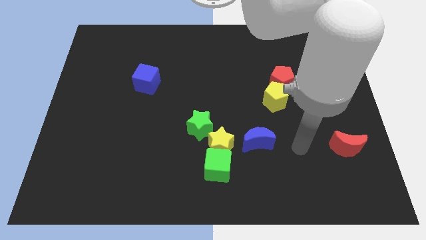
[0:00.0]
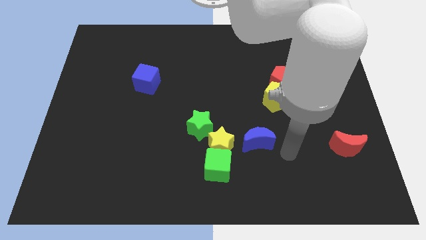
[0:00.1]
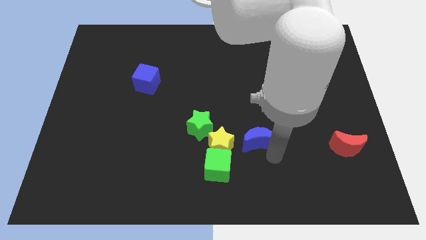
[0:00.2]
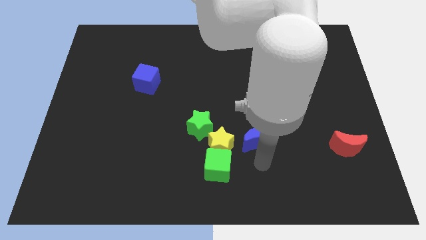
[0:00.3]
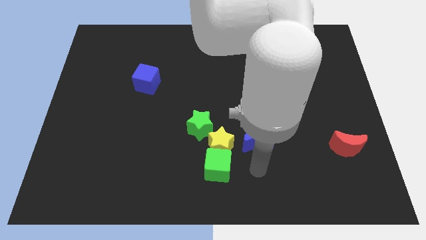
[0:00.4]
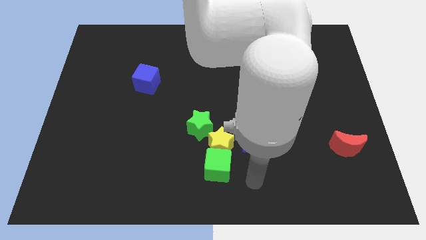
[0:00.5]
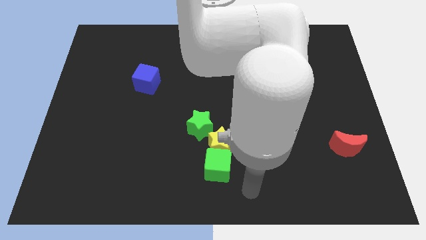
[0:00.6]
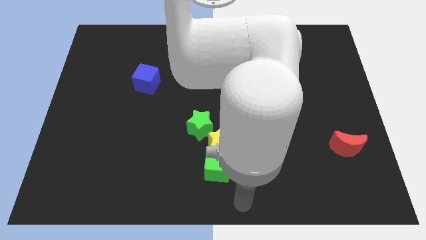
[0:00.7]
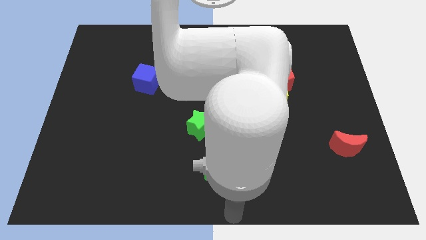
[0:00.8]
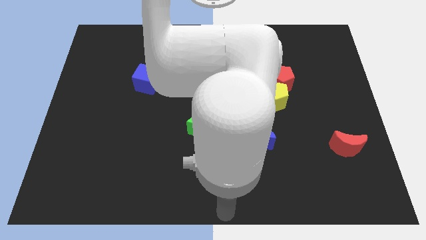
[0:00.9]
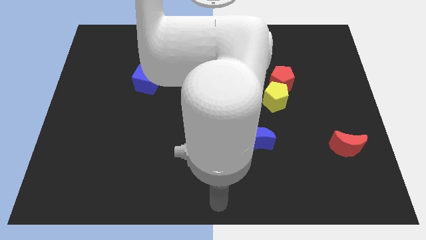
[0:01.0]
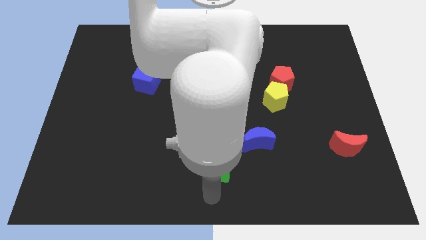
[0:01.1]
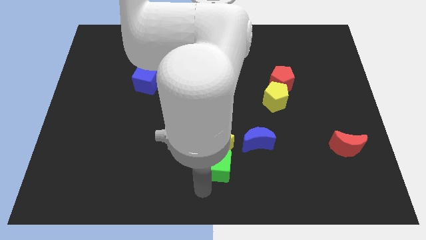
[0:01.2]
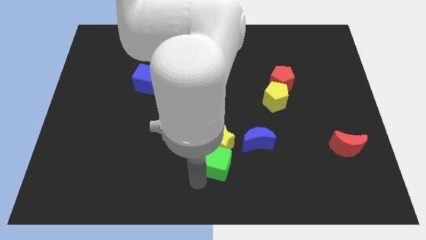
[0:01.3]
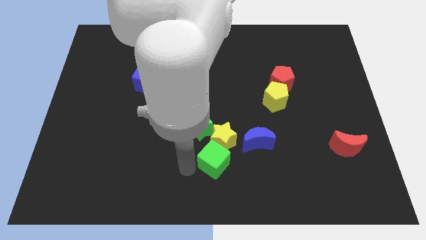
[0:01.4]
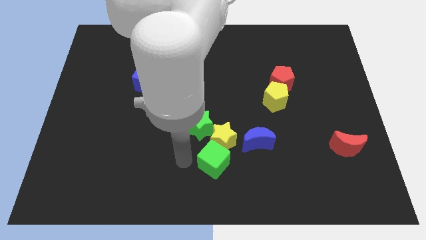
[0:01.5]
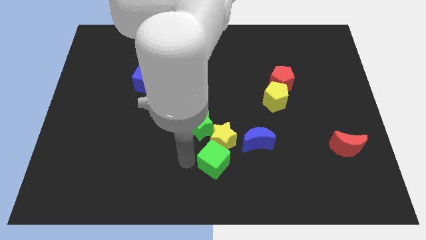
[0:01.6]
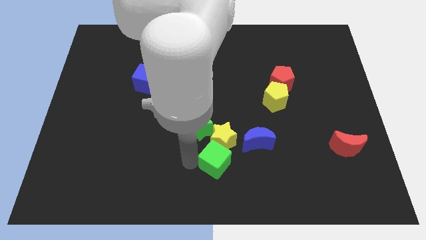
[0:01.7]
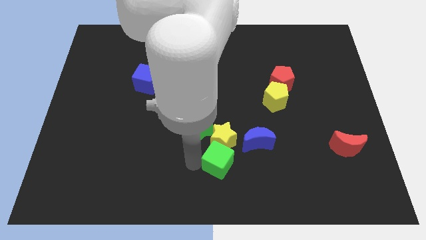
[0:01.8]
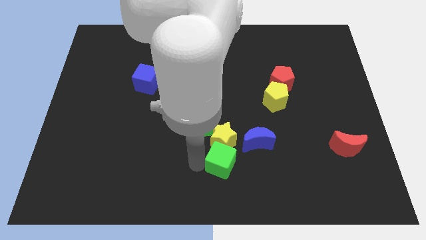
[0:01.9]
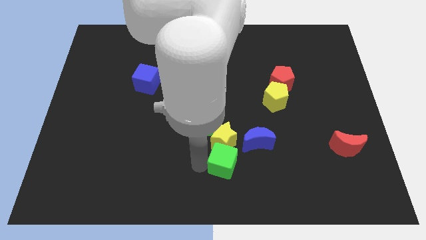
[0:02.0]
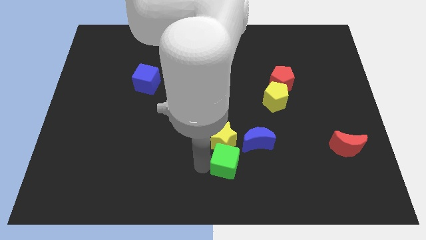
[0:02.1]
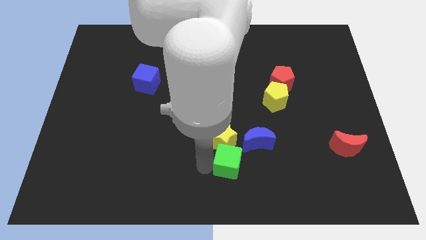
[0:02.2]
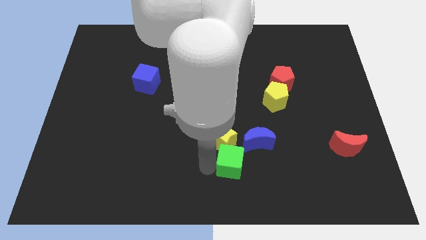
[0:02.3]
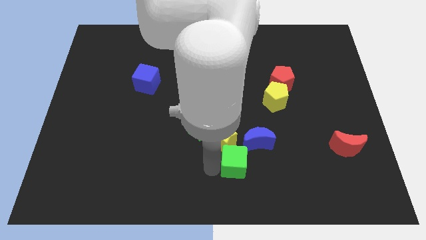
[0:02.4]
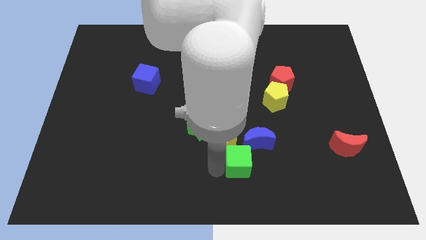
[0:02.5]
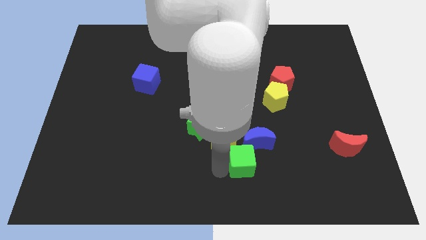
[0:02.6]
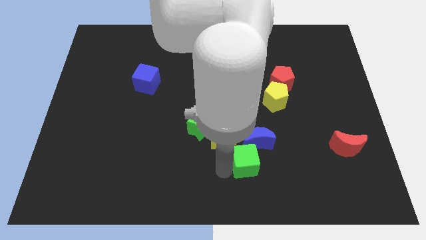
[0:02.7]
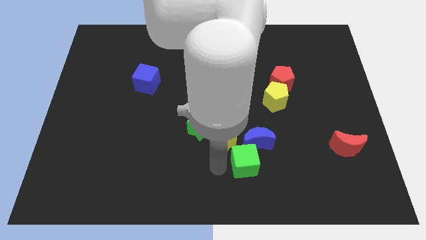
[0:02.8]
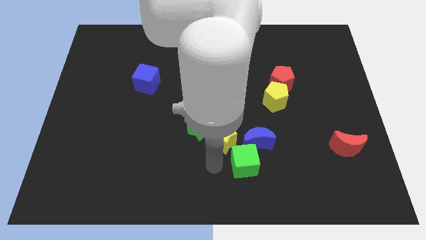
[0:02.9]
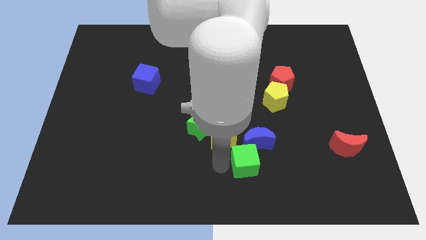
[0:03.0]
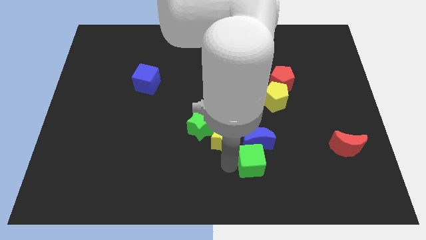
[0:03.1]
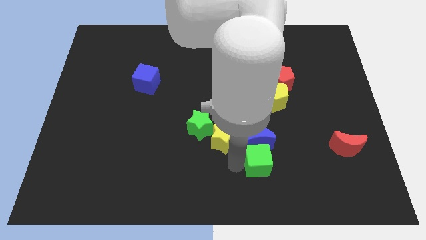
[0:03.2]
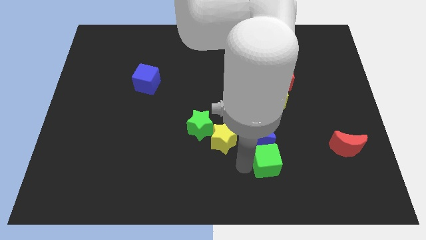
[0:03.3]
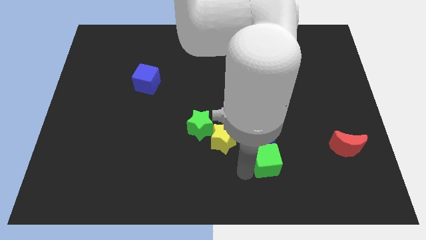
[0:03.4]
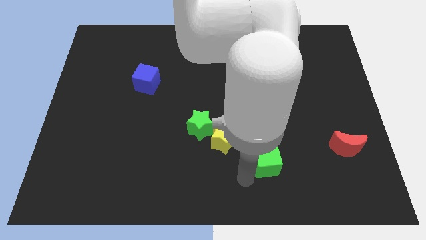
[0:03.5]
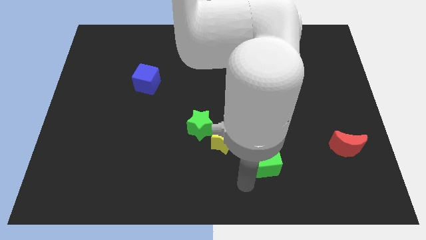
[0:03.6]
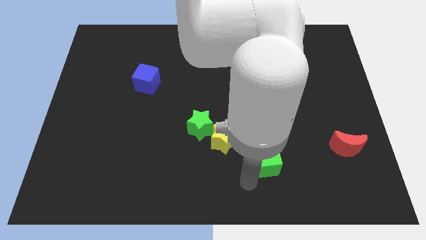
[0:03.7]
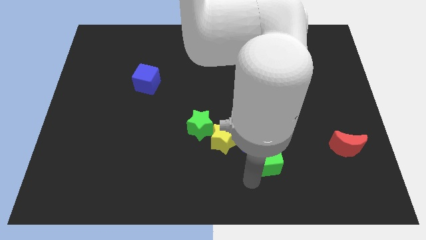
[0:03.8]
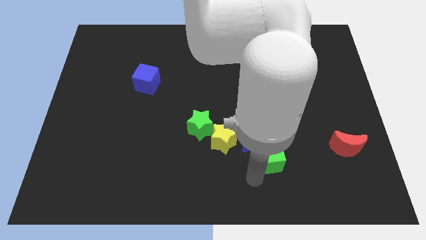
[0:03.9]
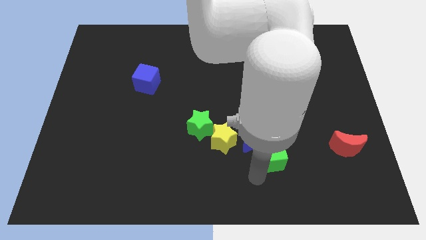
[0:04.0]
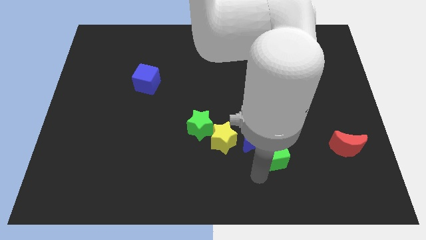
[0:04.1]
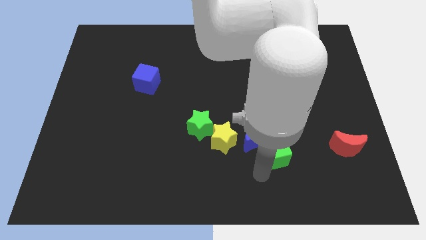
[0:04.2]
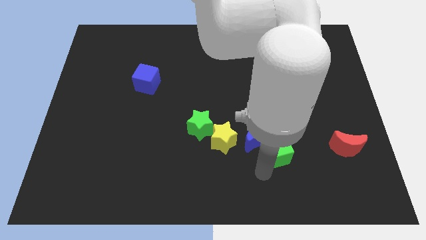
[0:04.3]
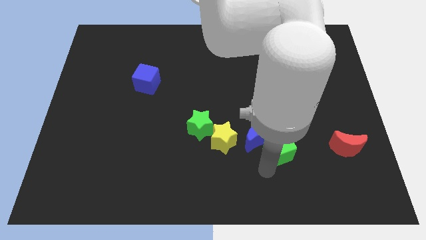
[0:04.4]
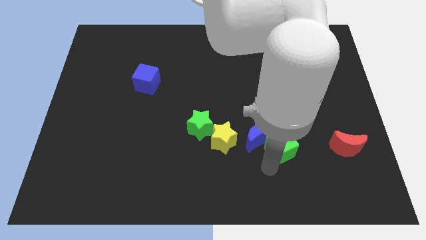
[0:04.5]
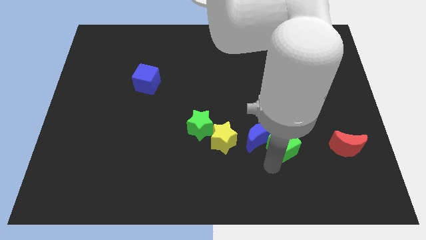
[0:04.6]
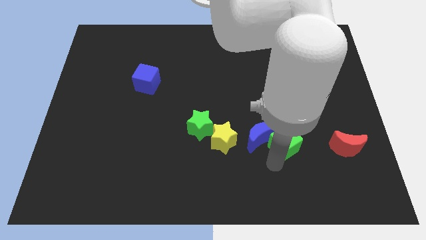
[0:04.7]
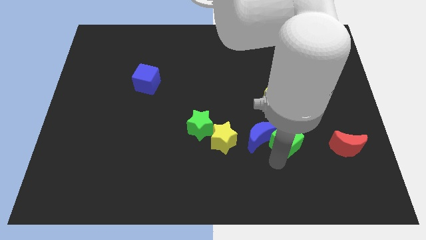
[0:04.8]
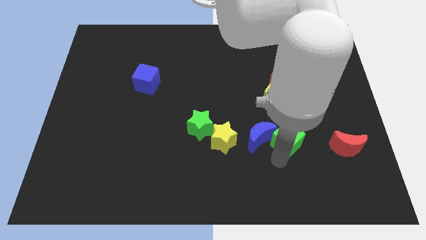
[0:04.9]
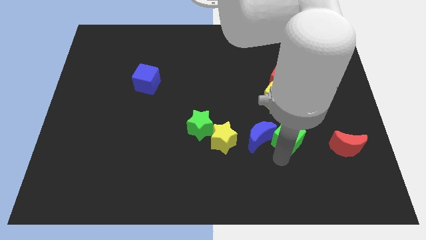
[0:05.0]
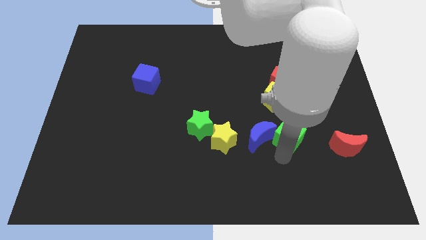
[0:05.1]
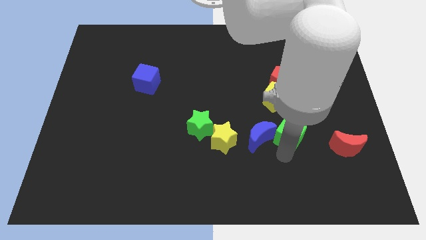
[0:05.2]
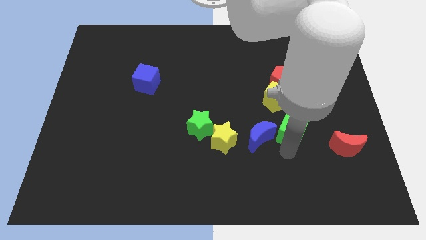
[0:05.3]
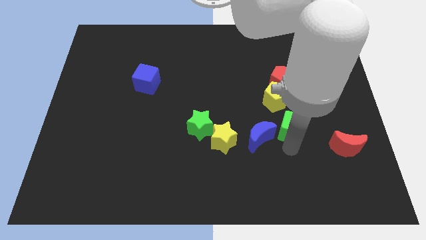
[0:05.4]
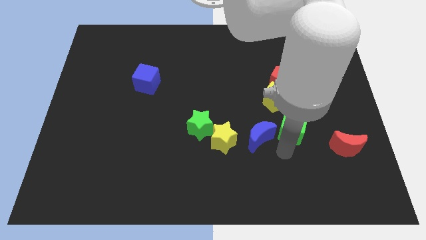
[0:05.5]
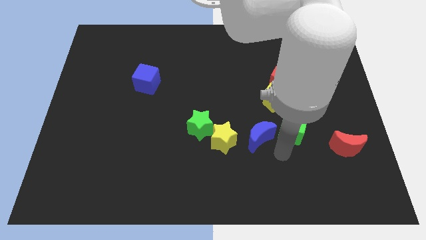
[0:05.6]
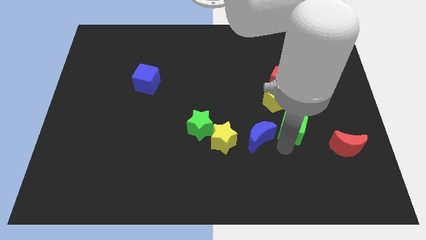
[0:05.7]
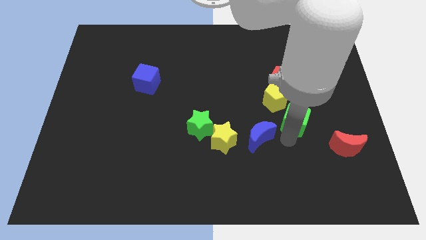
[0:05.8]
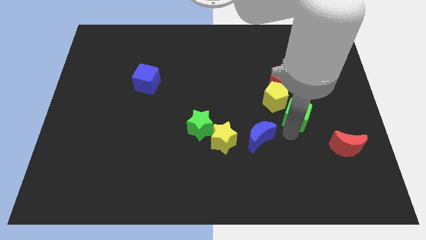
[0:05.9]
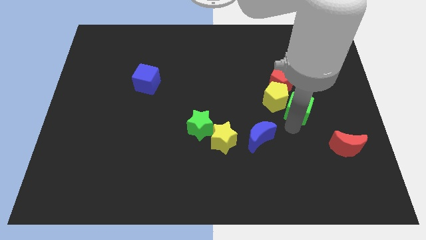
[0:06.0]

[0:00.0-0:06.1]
put the green cube to the bottom right side of the red pentagon

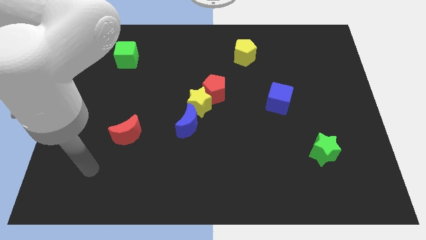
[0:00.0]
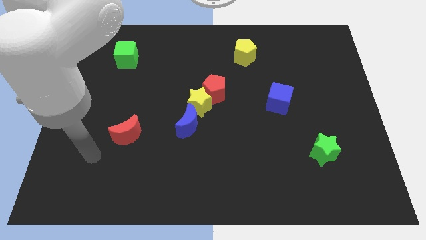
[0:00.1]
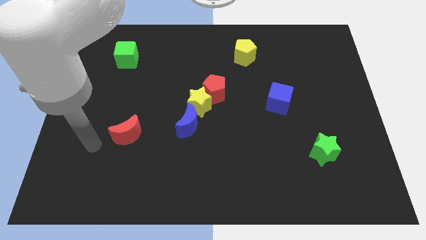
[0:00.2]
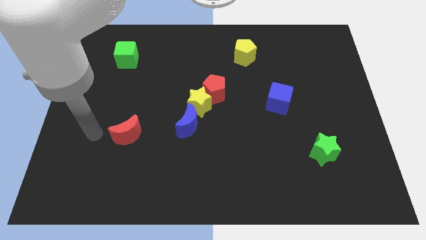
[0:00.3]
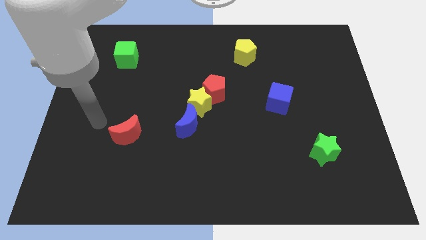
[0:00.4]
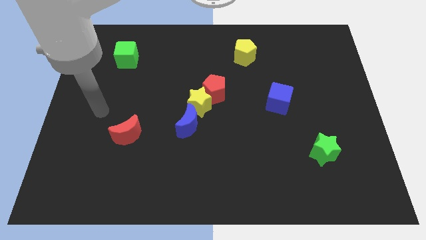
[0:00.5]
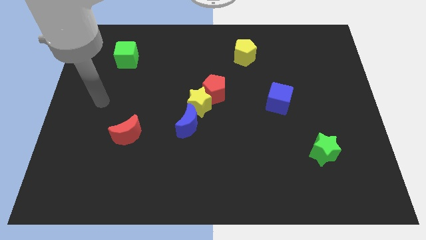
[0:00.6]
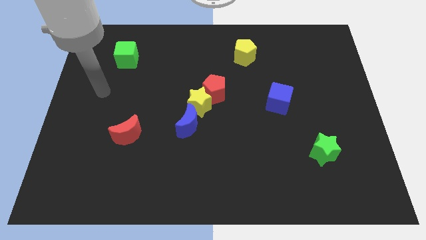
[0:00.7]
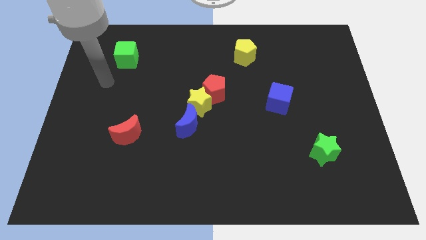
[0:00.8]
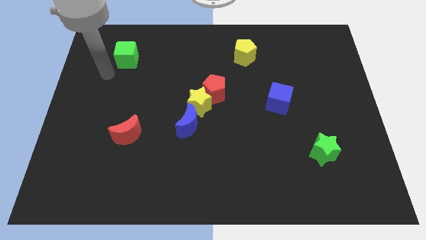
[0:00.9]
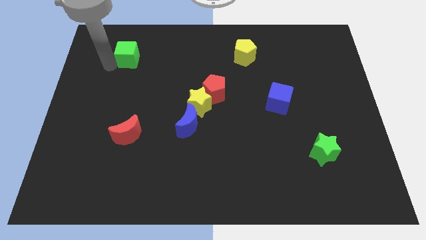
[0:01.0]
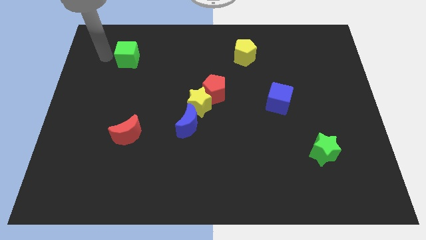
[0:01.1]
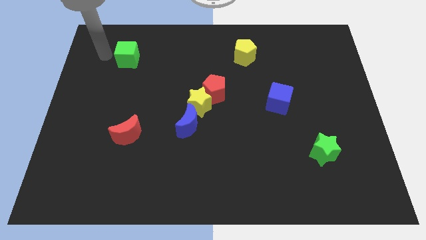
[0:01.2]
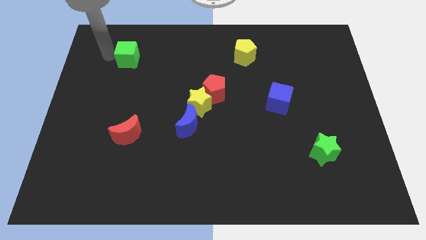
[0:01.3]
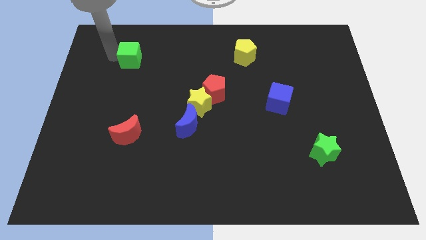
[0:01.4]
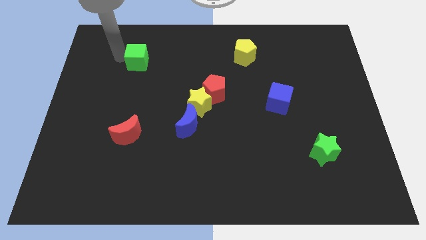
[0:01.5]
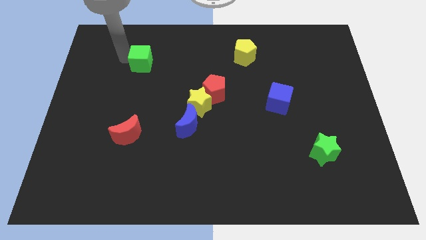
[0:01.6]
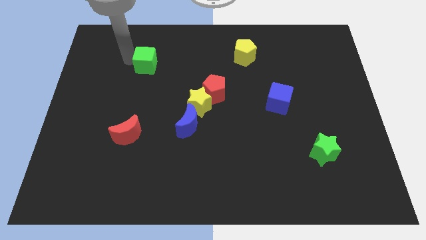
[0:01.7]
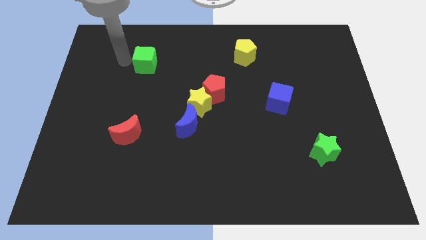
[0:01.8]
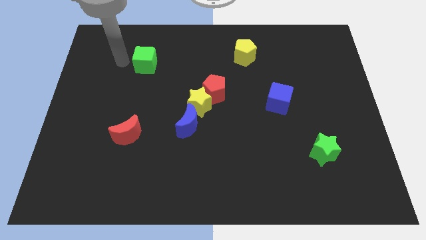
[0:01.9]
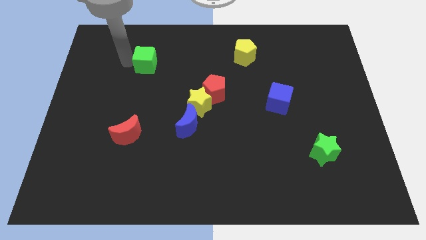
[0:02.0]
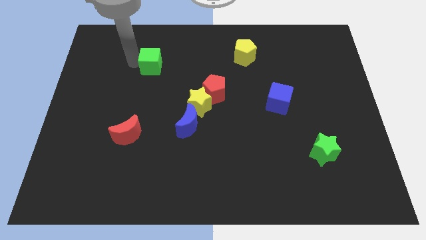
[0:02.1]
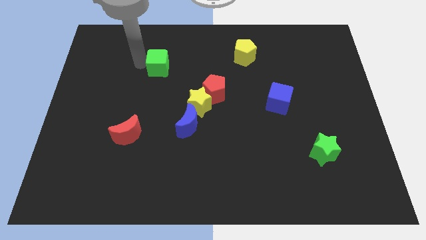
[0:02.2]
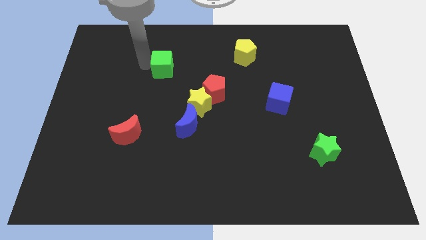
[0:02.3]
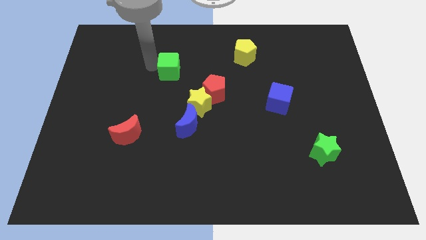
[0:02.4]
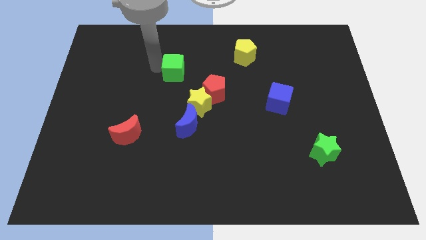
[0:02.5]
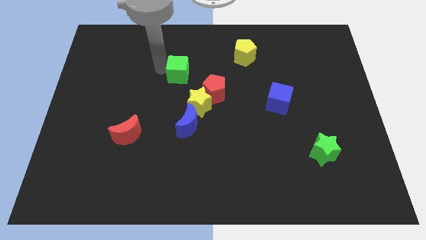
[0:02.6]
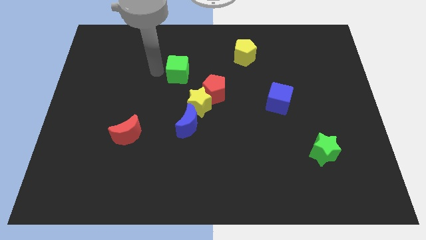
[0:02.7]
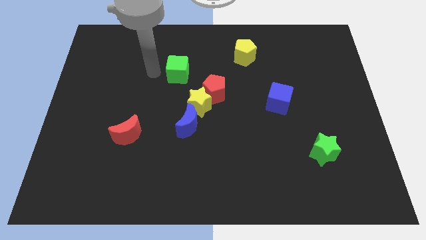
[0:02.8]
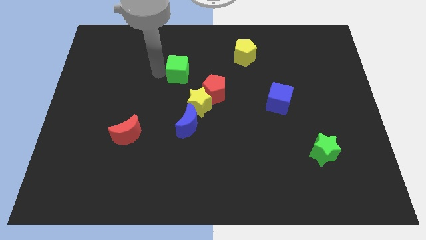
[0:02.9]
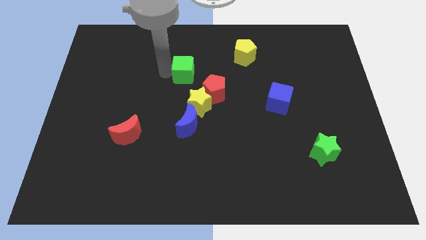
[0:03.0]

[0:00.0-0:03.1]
slide the green cube to the top of the yellow star
